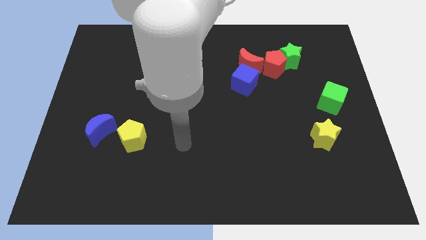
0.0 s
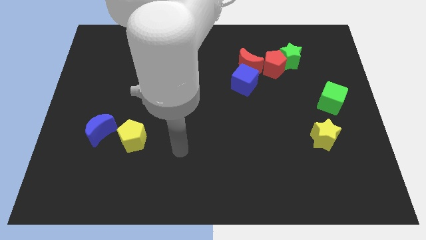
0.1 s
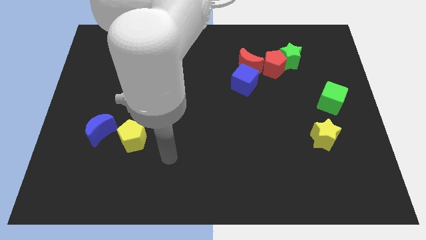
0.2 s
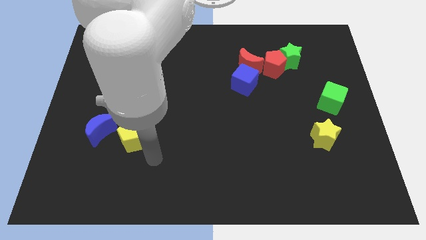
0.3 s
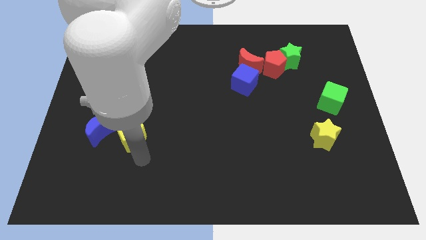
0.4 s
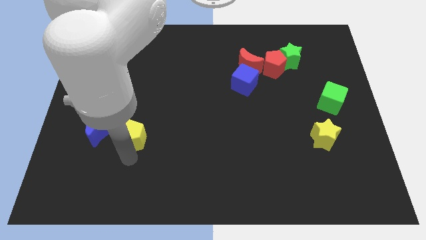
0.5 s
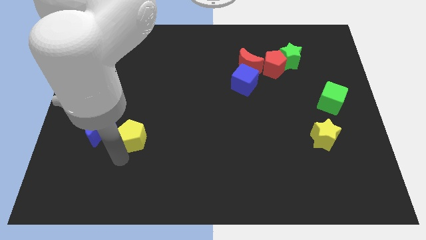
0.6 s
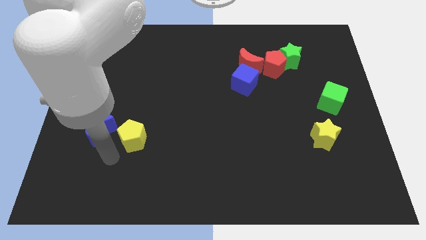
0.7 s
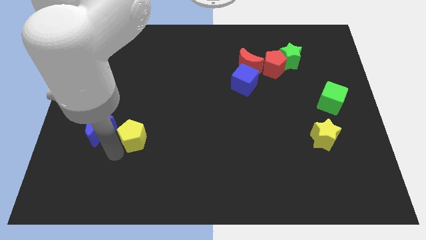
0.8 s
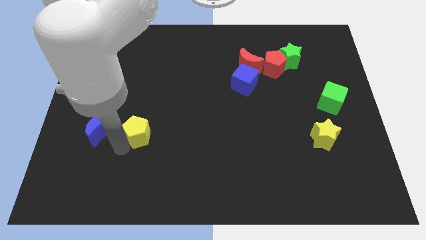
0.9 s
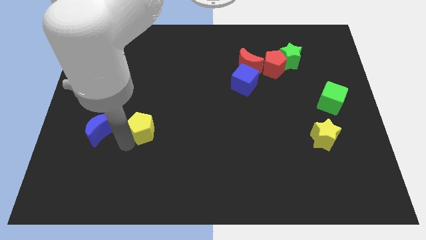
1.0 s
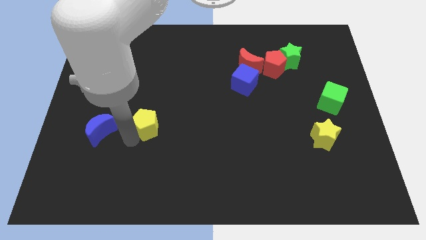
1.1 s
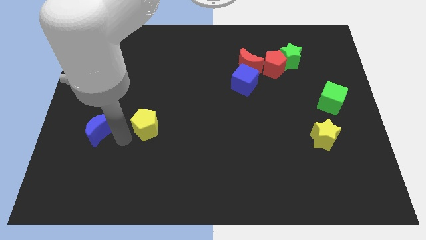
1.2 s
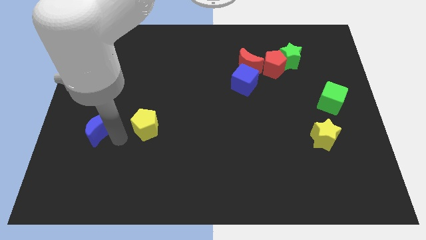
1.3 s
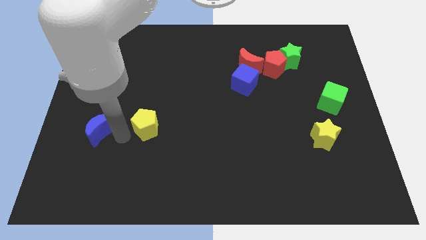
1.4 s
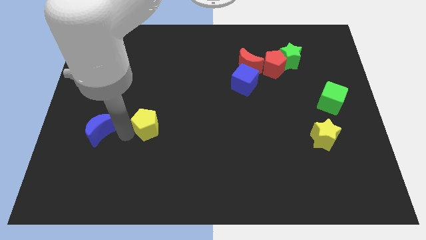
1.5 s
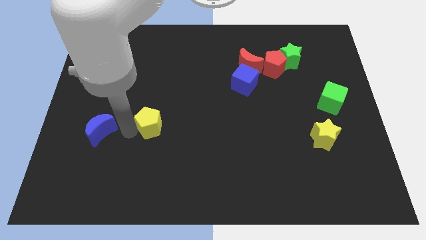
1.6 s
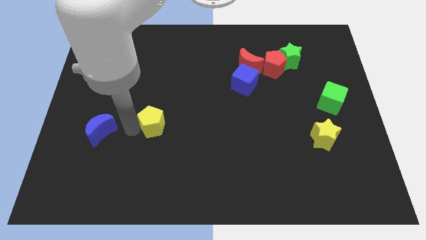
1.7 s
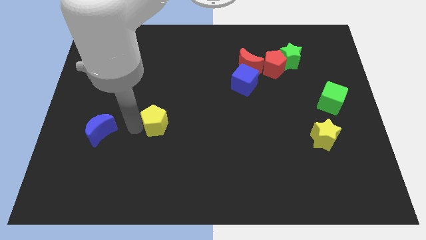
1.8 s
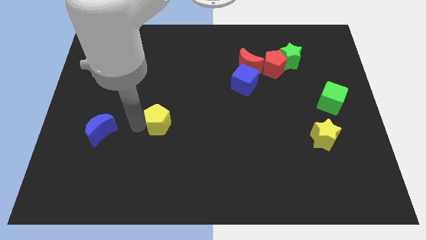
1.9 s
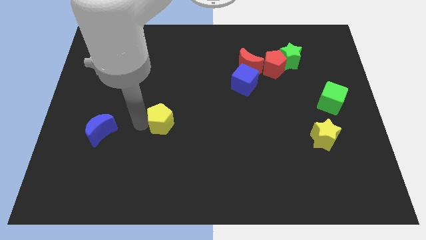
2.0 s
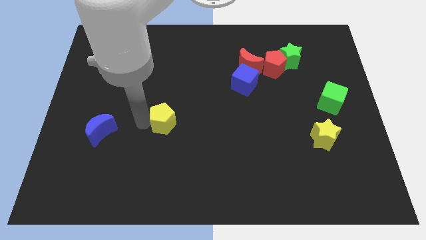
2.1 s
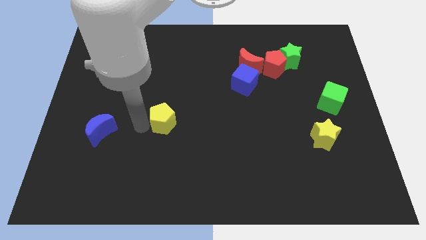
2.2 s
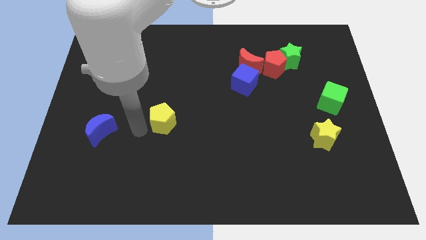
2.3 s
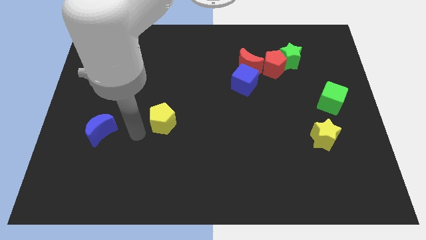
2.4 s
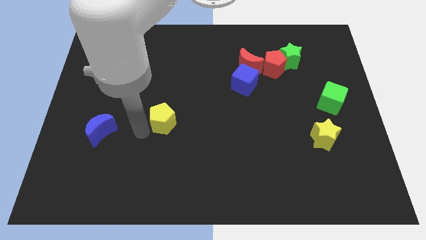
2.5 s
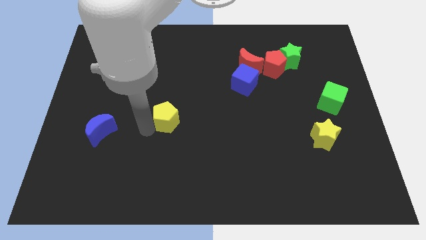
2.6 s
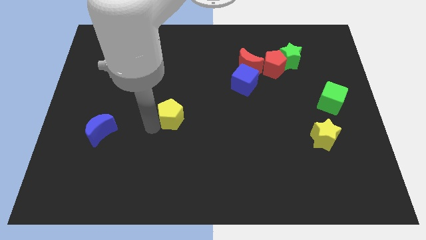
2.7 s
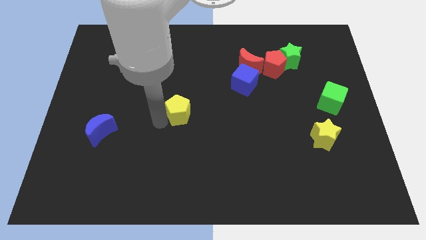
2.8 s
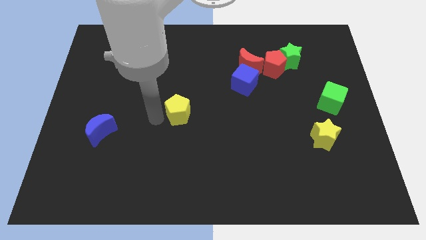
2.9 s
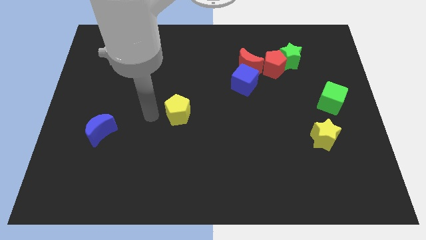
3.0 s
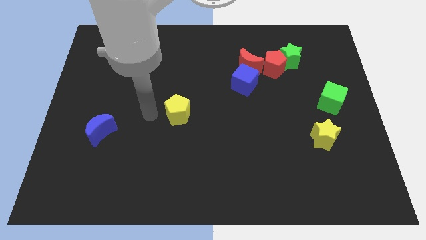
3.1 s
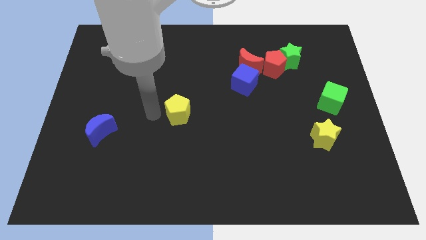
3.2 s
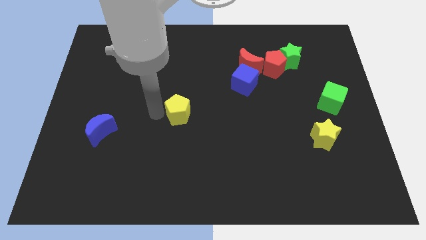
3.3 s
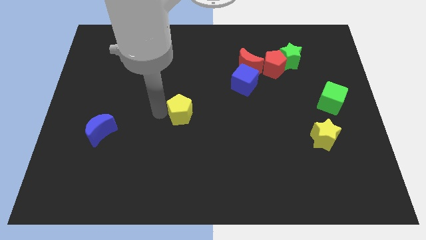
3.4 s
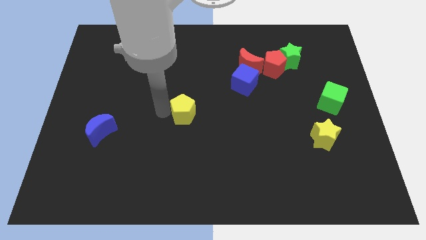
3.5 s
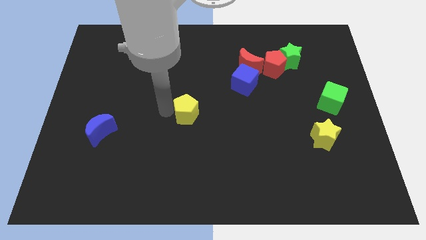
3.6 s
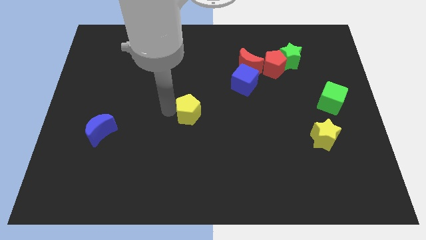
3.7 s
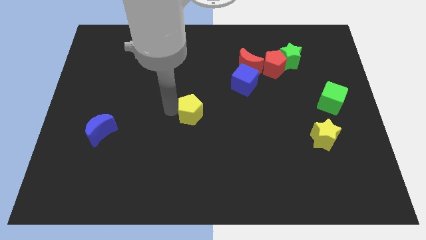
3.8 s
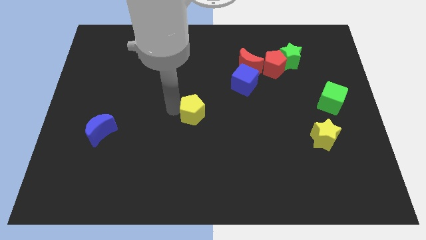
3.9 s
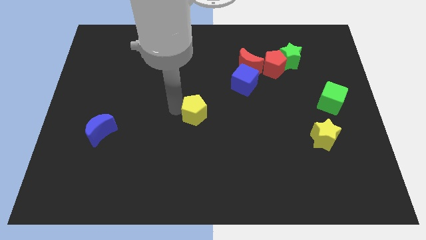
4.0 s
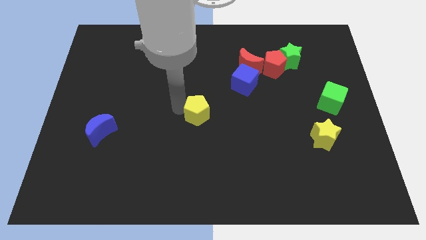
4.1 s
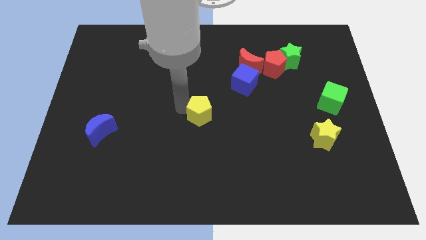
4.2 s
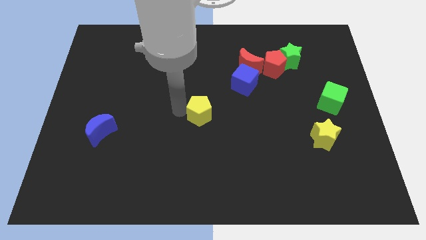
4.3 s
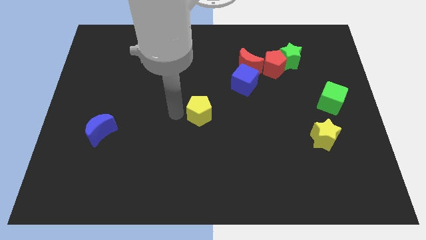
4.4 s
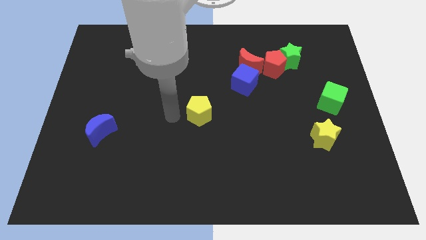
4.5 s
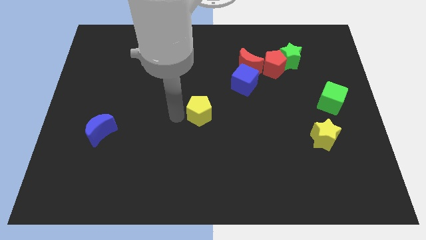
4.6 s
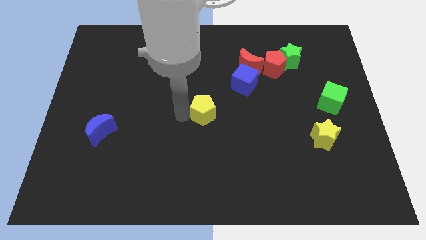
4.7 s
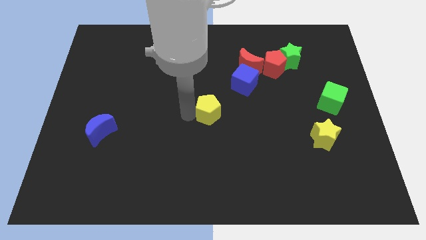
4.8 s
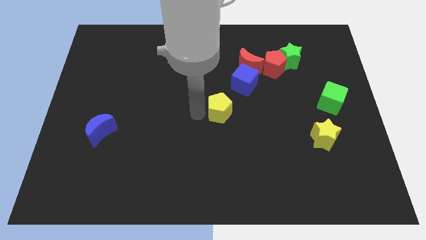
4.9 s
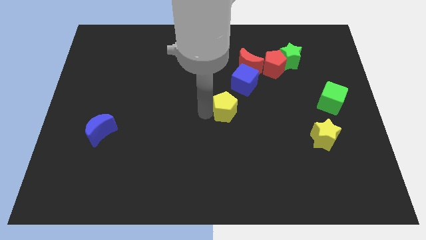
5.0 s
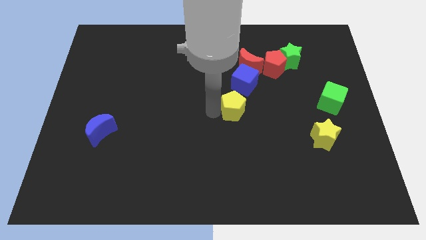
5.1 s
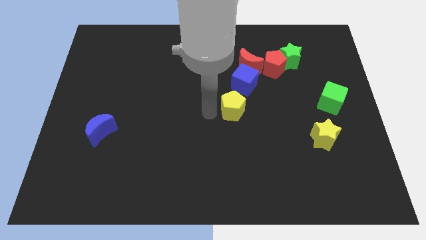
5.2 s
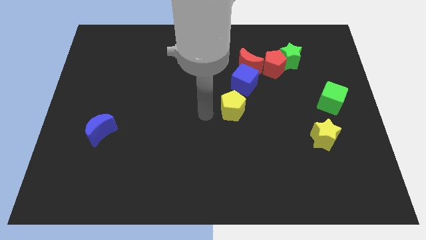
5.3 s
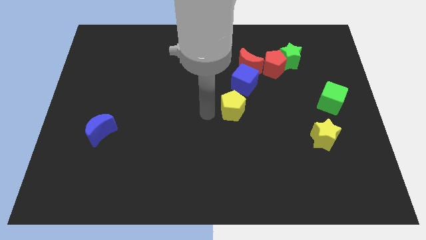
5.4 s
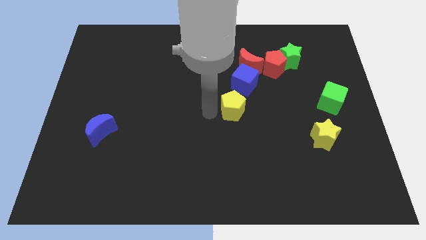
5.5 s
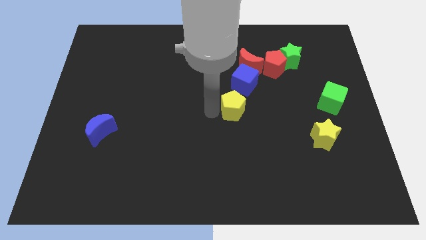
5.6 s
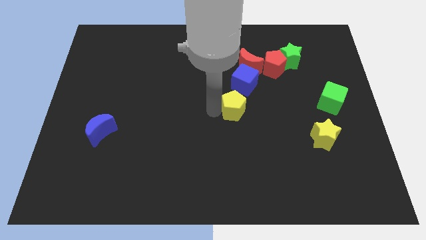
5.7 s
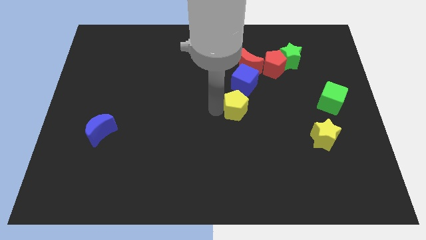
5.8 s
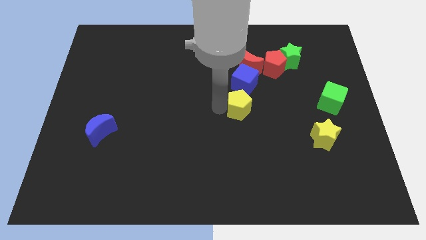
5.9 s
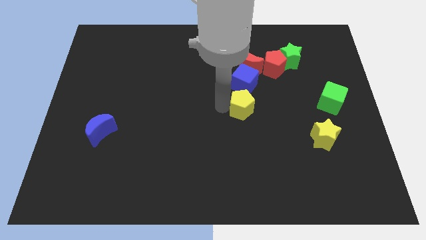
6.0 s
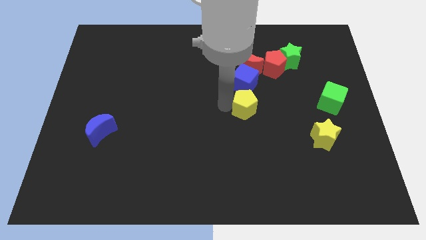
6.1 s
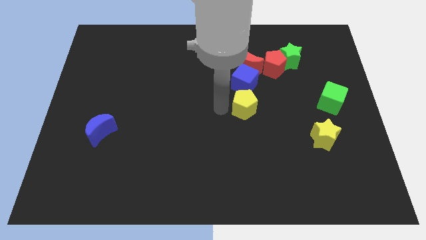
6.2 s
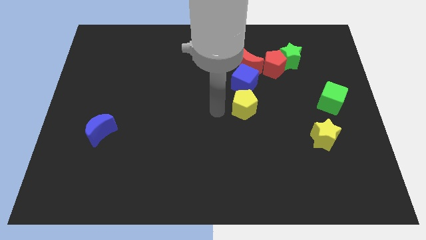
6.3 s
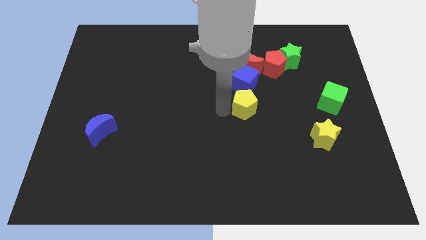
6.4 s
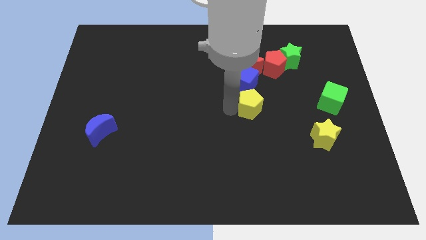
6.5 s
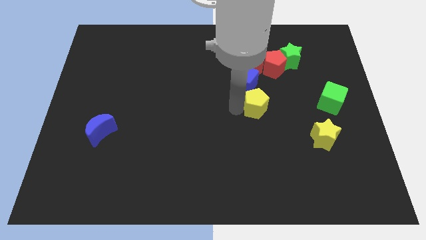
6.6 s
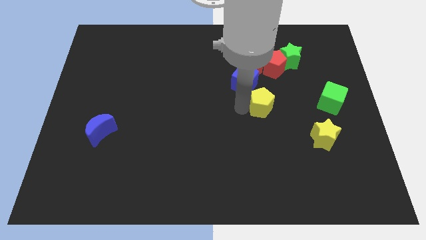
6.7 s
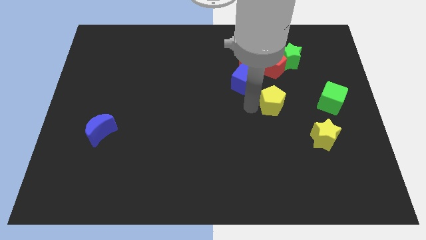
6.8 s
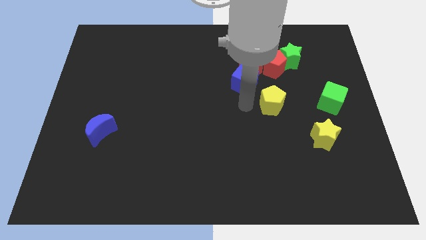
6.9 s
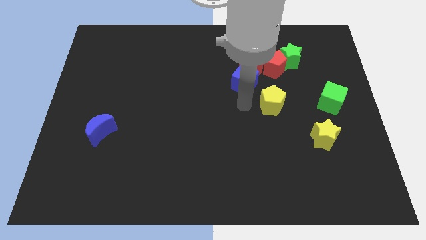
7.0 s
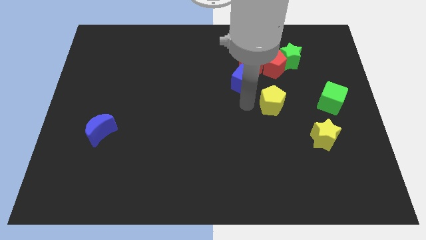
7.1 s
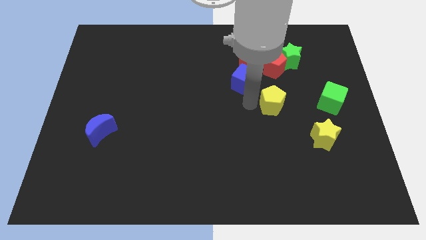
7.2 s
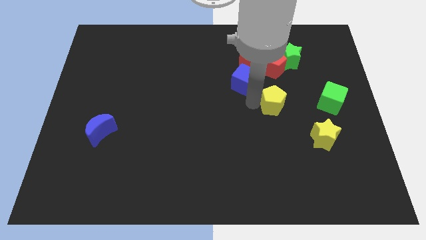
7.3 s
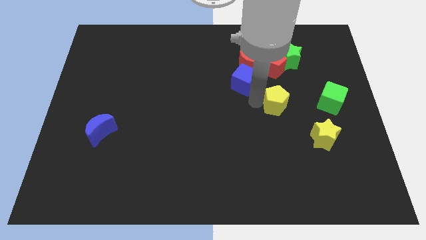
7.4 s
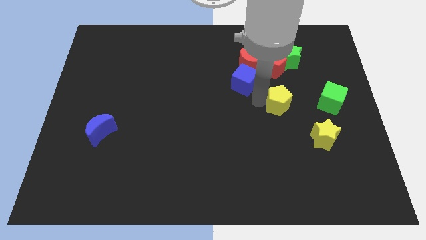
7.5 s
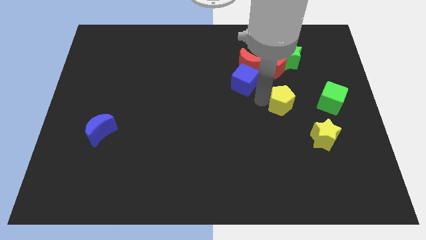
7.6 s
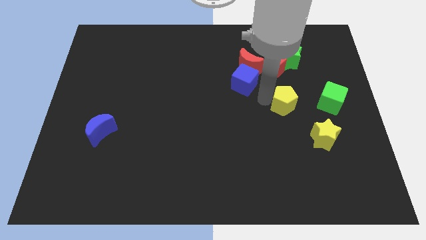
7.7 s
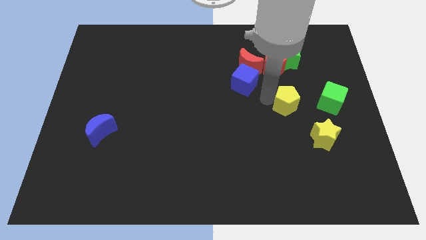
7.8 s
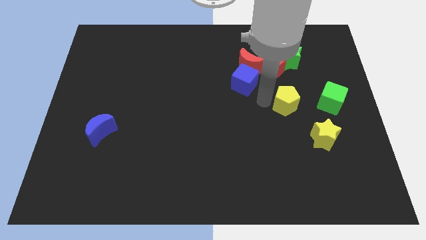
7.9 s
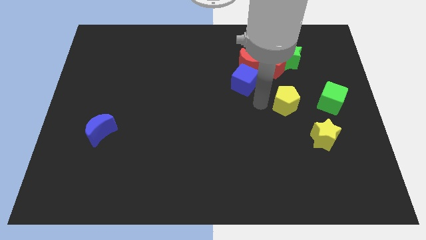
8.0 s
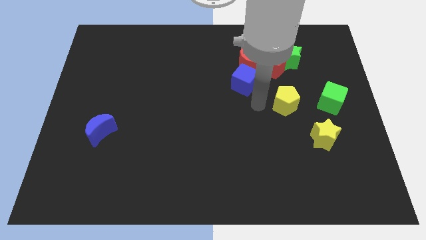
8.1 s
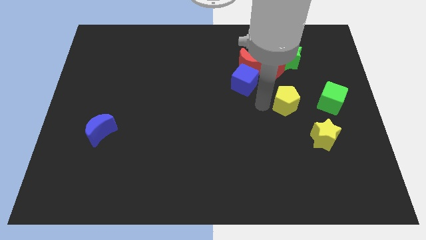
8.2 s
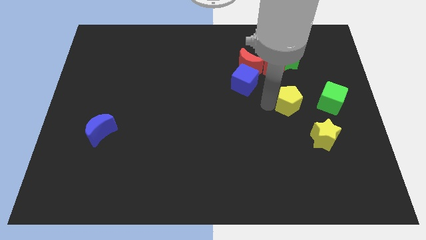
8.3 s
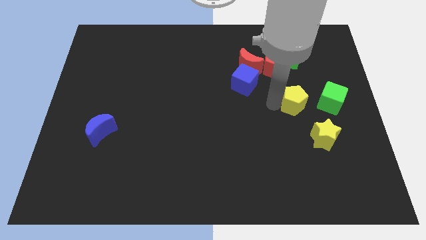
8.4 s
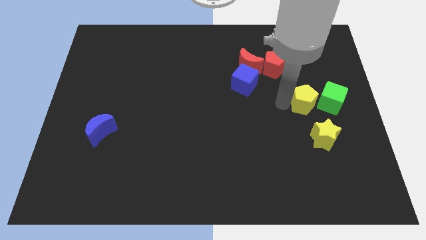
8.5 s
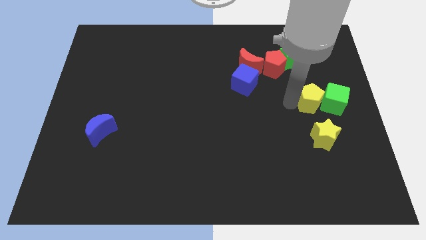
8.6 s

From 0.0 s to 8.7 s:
put the yellow pentagon next to the green cube
